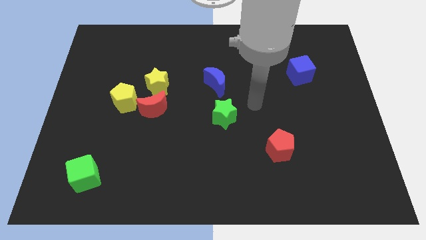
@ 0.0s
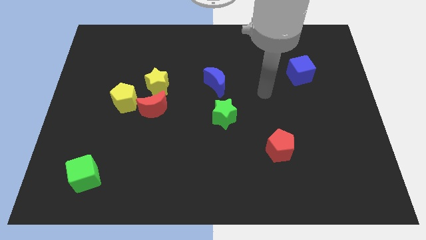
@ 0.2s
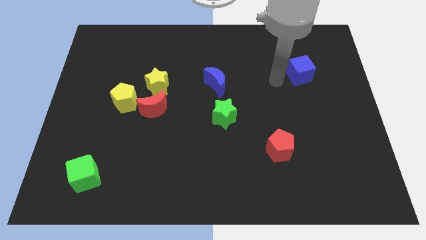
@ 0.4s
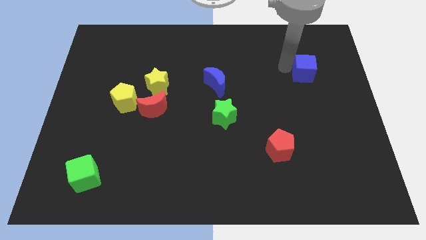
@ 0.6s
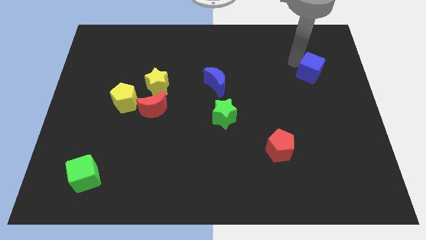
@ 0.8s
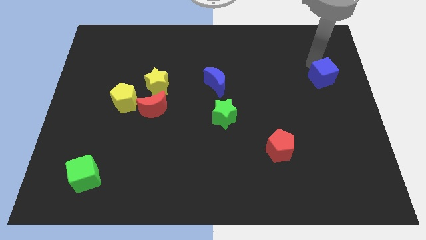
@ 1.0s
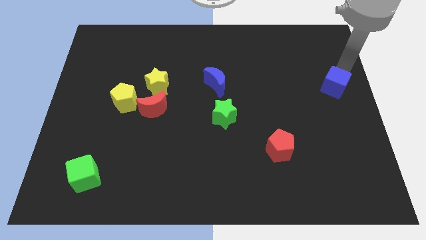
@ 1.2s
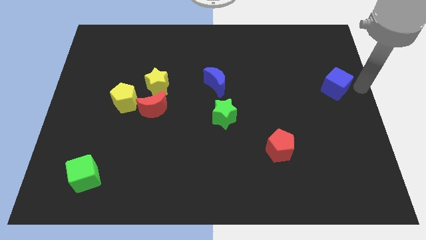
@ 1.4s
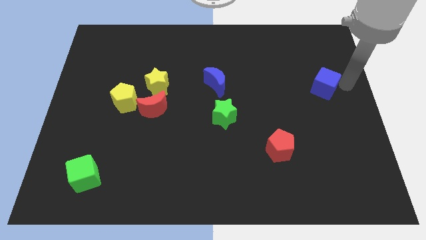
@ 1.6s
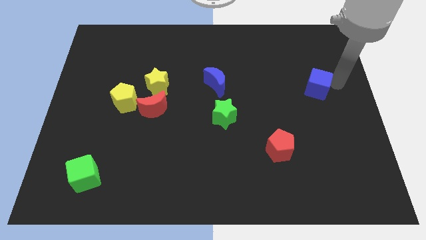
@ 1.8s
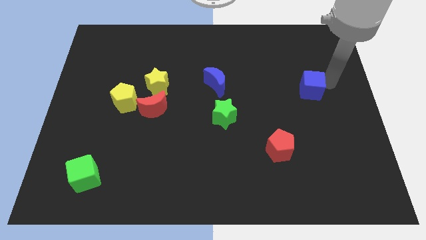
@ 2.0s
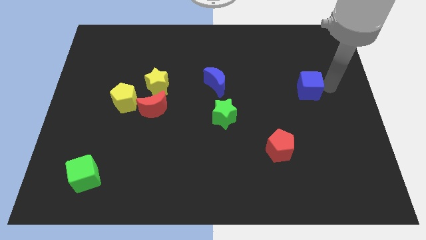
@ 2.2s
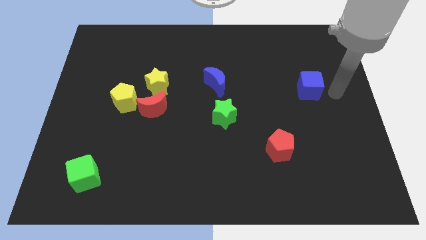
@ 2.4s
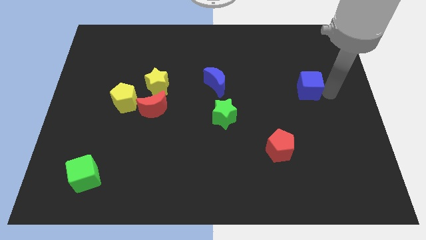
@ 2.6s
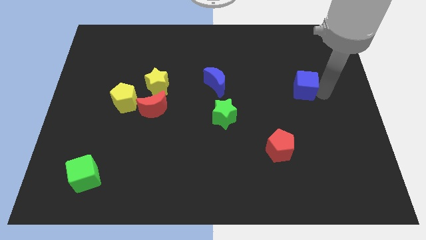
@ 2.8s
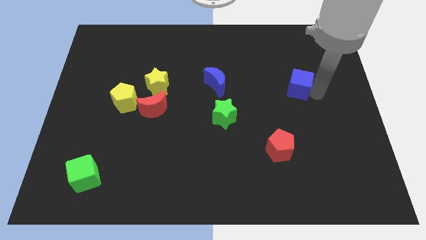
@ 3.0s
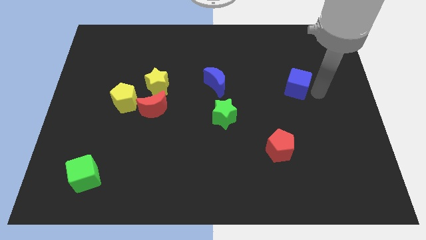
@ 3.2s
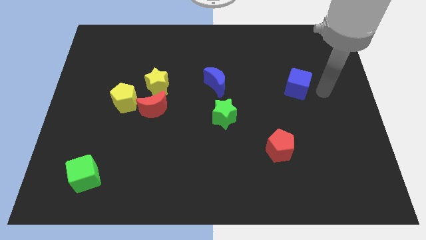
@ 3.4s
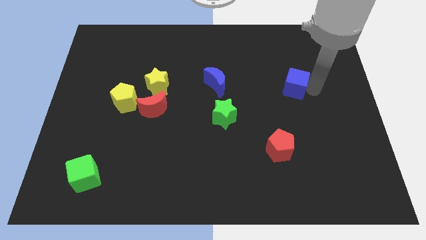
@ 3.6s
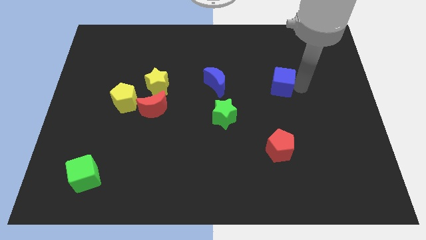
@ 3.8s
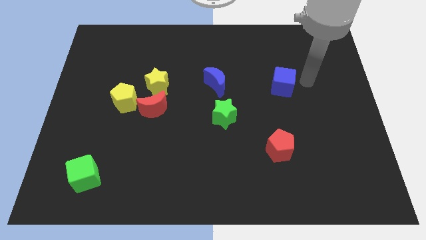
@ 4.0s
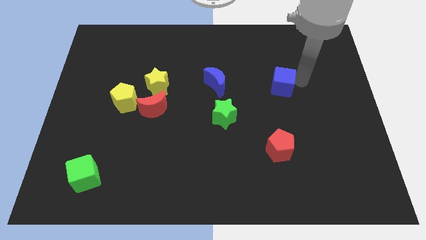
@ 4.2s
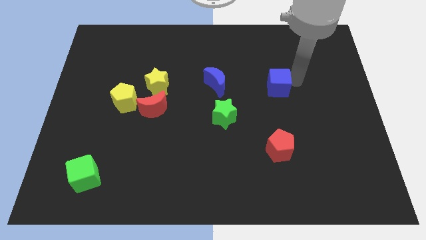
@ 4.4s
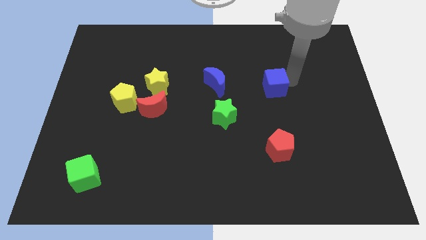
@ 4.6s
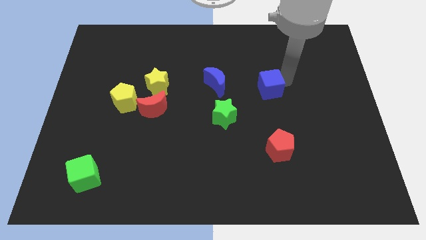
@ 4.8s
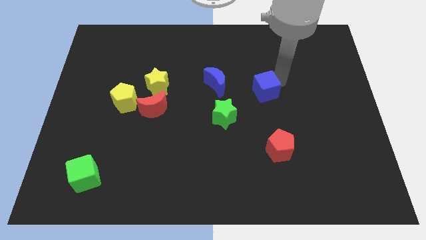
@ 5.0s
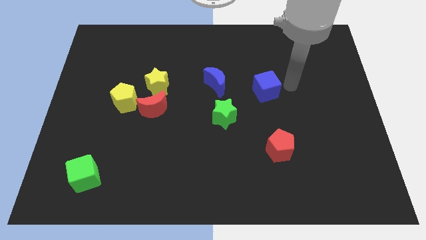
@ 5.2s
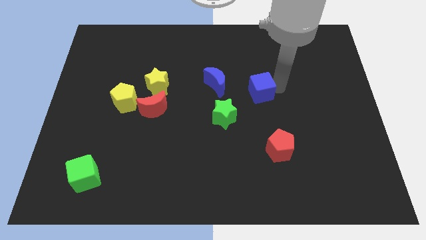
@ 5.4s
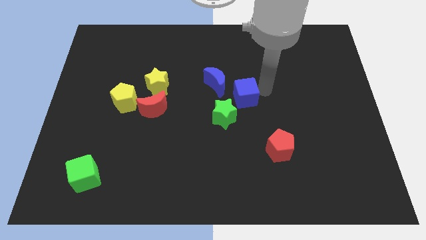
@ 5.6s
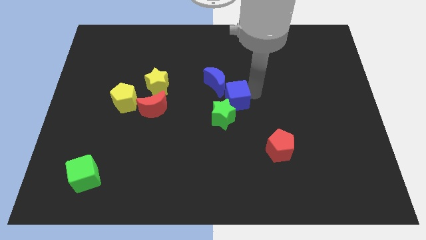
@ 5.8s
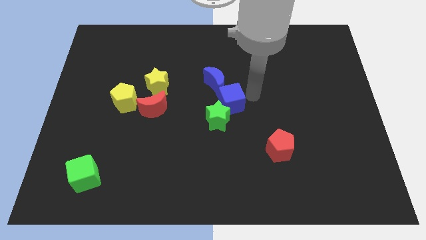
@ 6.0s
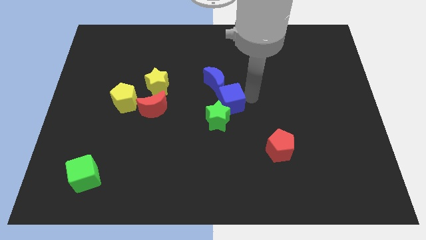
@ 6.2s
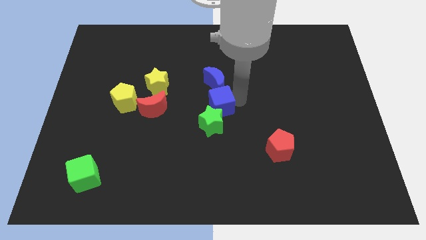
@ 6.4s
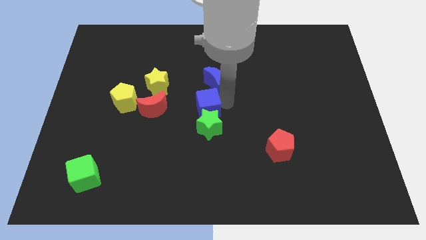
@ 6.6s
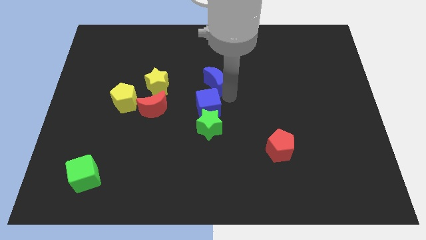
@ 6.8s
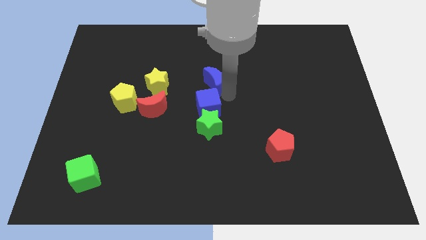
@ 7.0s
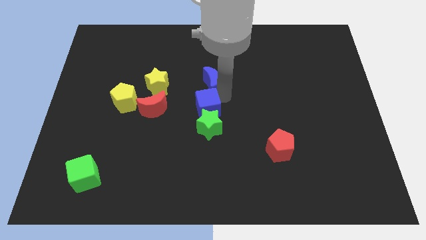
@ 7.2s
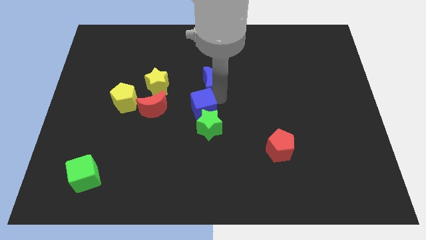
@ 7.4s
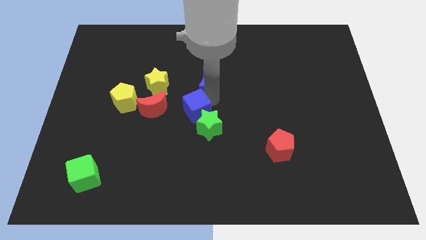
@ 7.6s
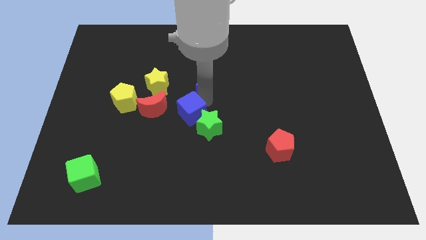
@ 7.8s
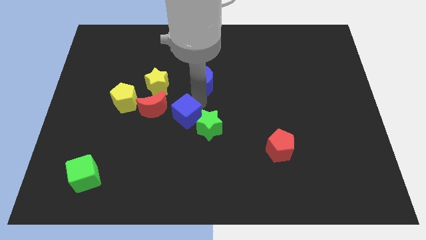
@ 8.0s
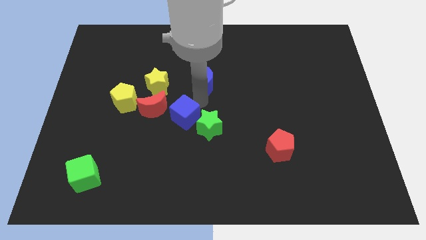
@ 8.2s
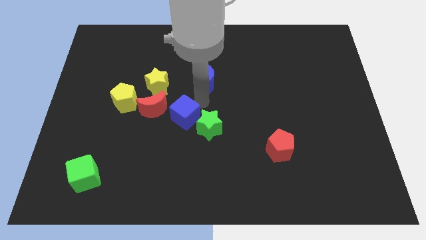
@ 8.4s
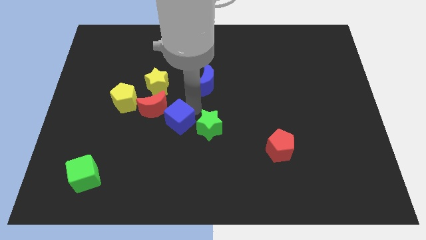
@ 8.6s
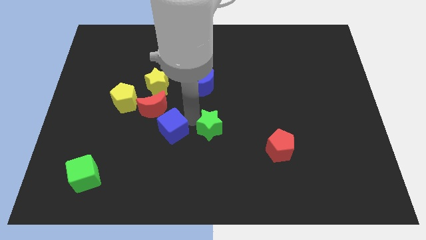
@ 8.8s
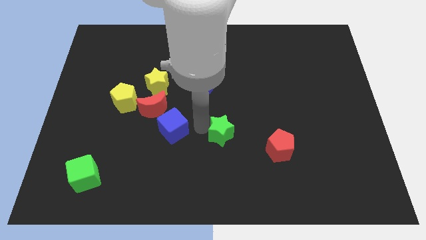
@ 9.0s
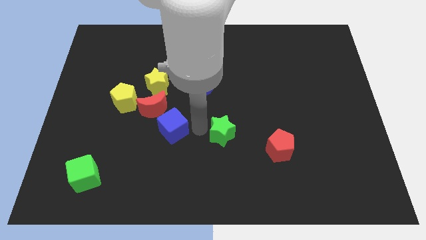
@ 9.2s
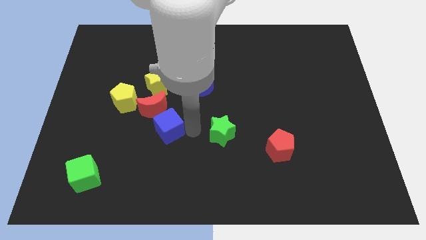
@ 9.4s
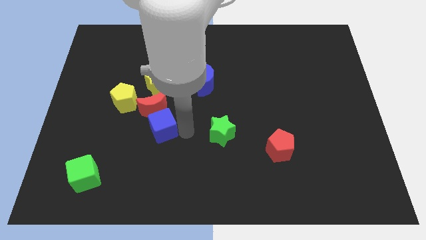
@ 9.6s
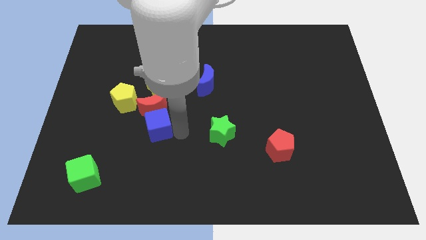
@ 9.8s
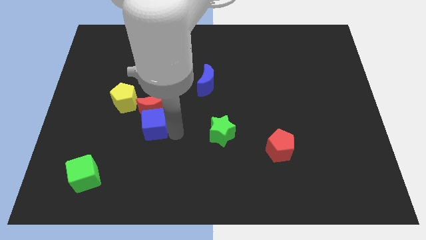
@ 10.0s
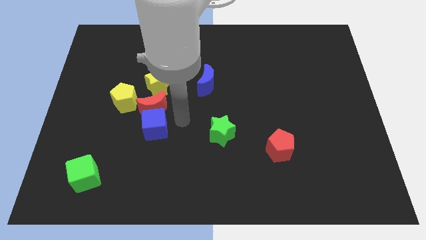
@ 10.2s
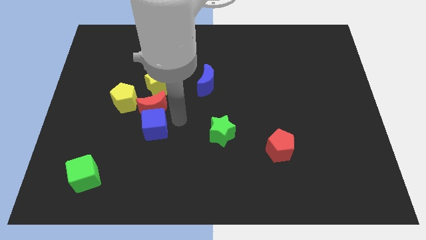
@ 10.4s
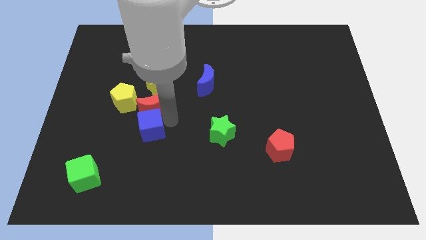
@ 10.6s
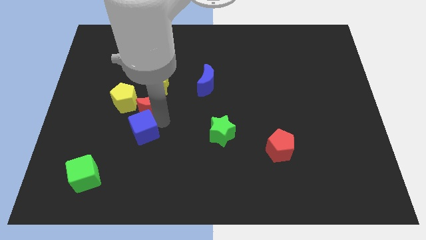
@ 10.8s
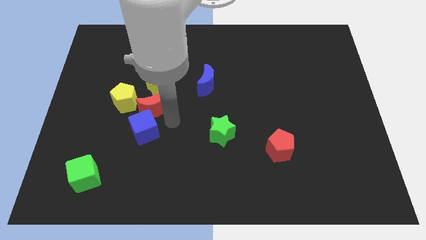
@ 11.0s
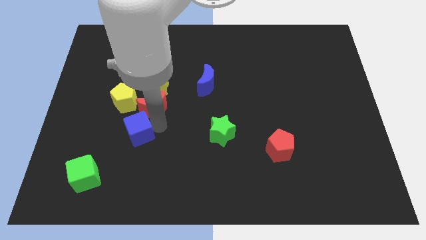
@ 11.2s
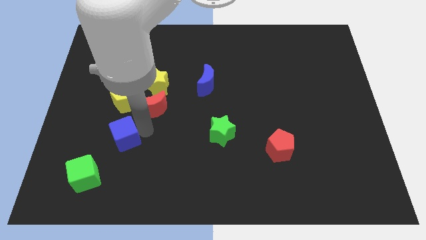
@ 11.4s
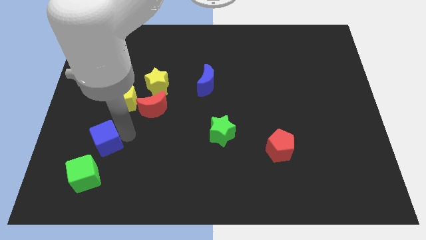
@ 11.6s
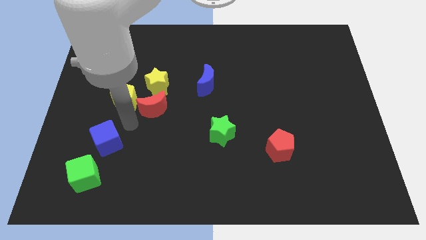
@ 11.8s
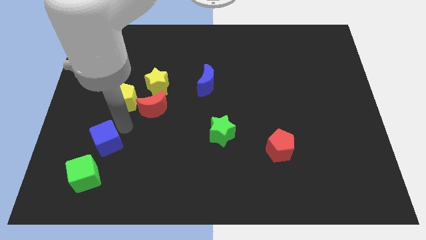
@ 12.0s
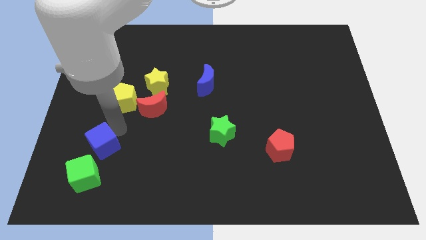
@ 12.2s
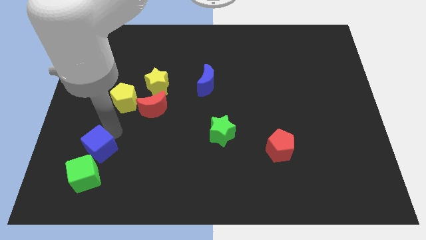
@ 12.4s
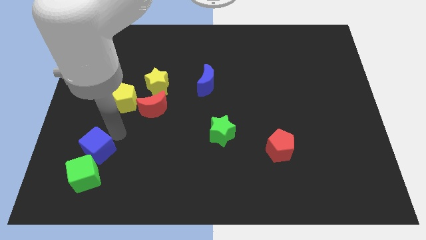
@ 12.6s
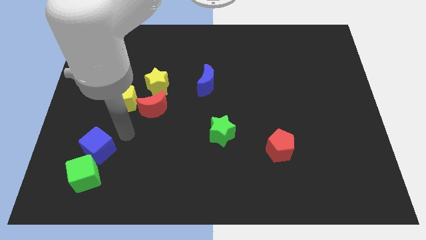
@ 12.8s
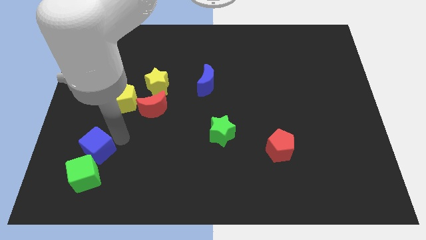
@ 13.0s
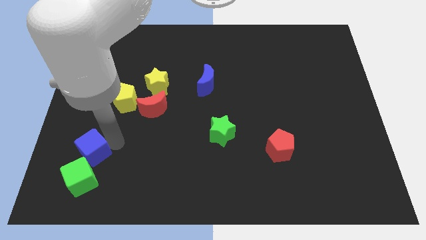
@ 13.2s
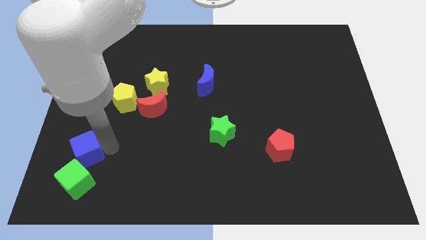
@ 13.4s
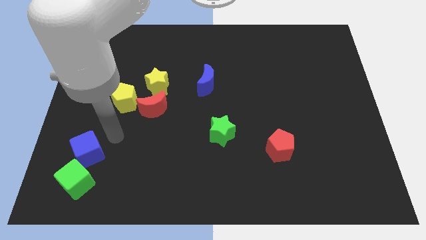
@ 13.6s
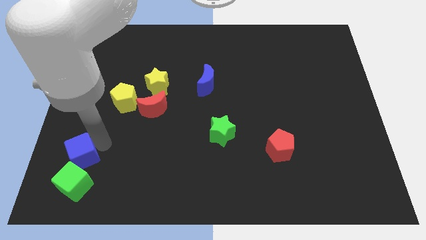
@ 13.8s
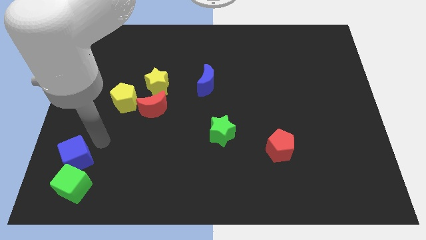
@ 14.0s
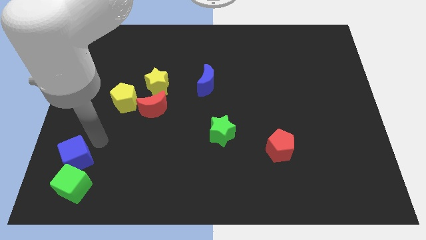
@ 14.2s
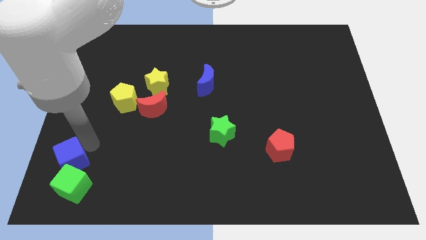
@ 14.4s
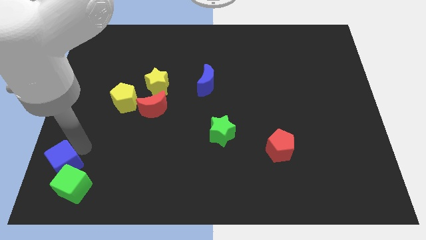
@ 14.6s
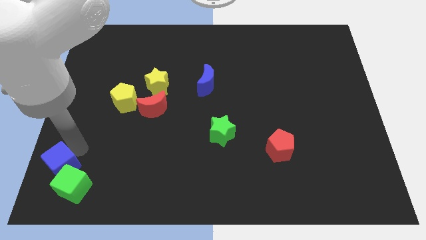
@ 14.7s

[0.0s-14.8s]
push the blue cube to the lower left corner

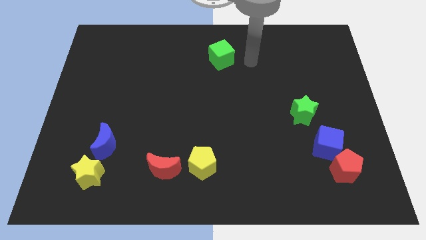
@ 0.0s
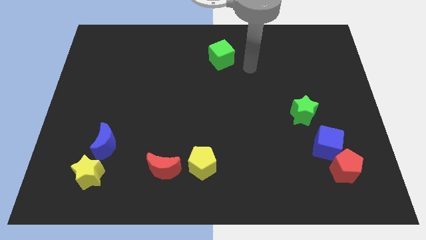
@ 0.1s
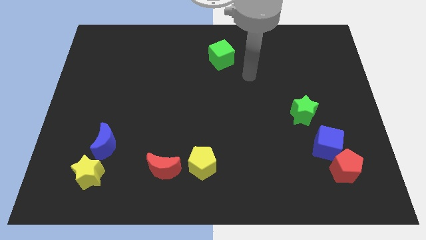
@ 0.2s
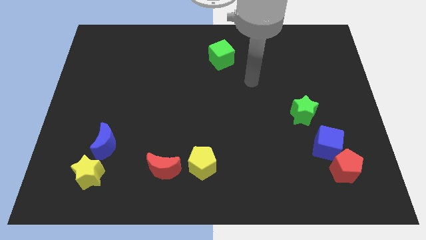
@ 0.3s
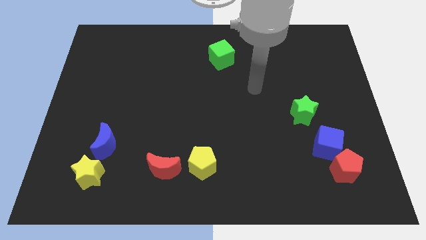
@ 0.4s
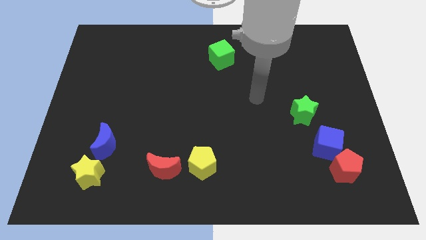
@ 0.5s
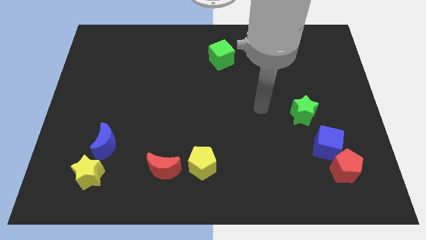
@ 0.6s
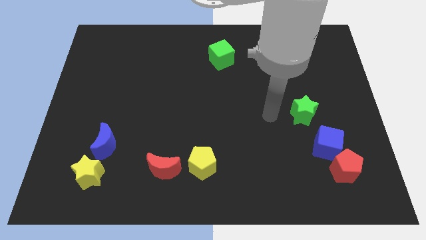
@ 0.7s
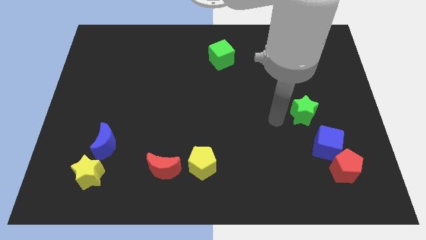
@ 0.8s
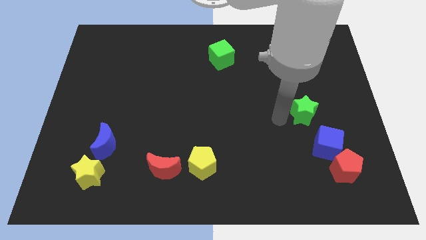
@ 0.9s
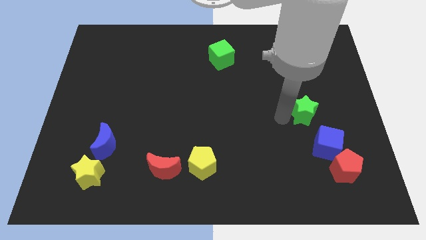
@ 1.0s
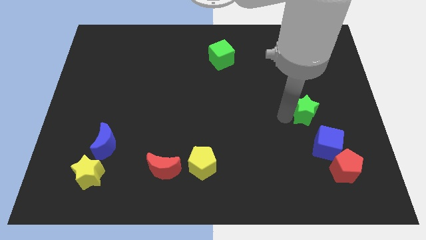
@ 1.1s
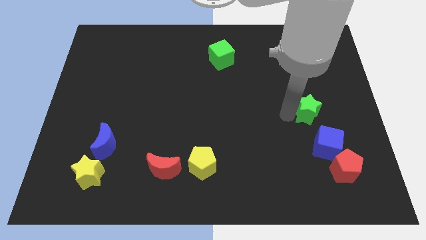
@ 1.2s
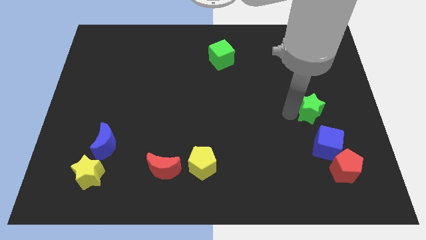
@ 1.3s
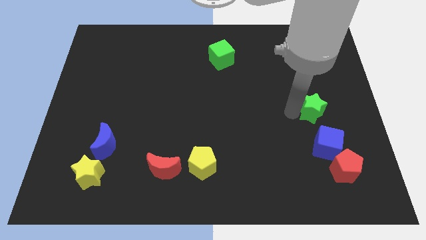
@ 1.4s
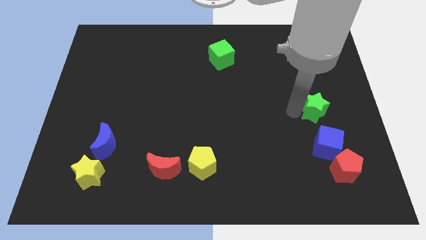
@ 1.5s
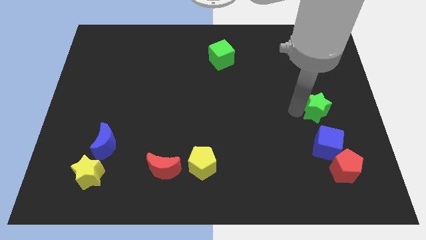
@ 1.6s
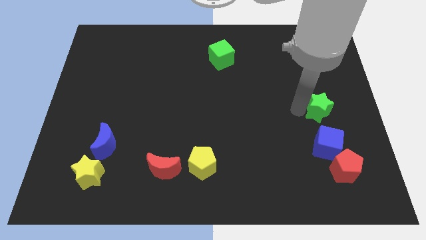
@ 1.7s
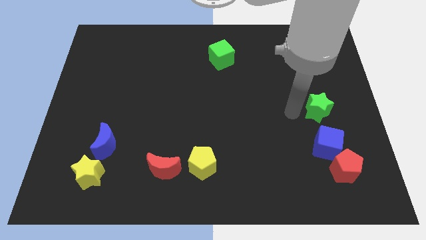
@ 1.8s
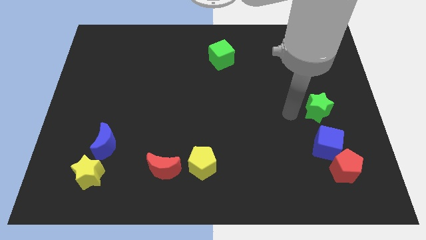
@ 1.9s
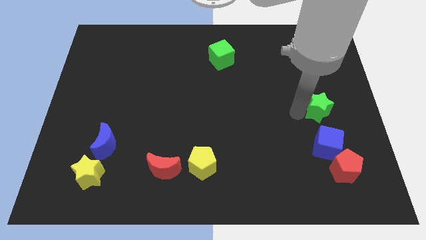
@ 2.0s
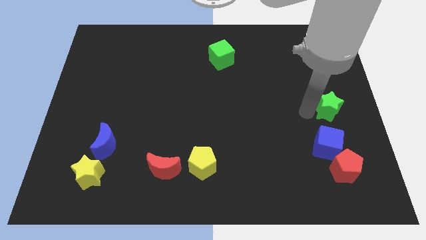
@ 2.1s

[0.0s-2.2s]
move the green star to the right side
